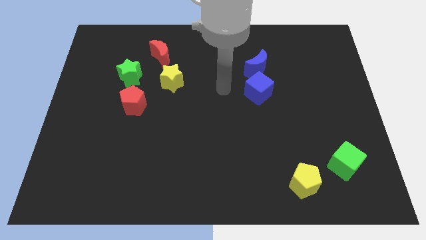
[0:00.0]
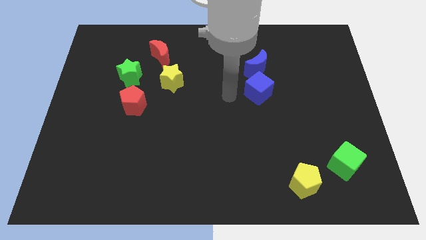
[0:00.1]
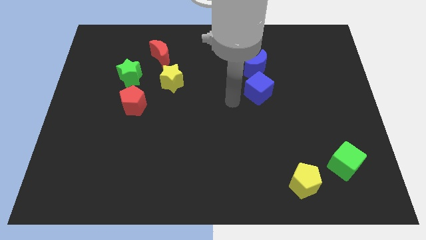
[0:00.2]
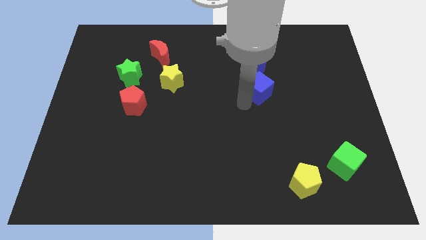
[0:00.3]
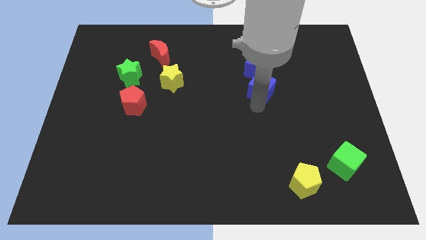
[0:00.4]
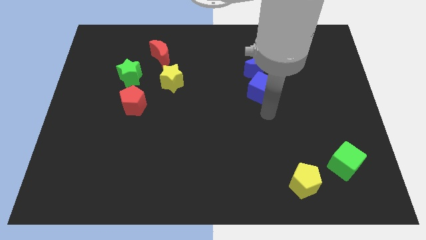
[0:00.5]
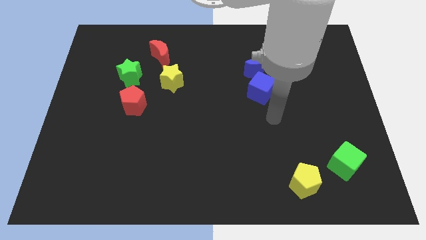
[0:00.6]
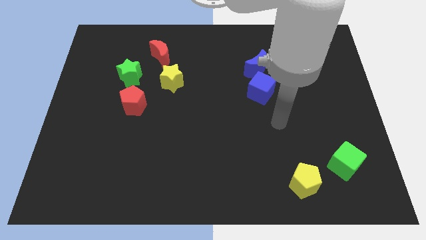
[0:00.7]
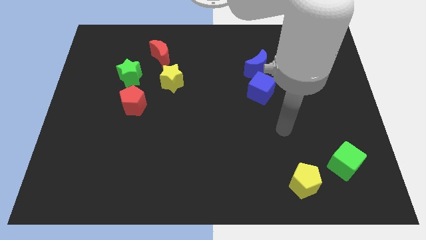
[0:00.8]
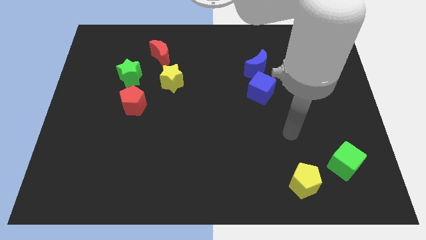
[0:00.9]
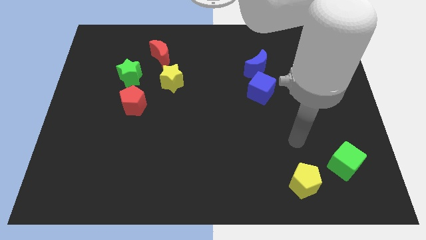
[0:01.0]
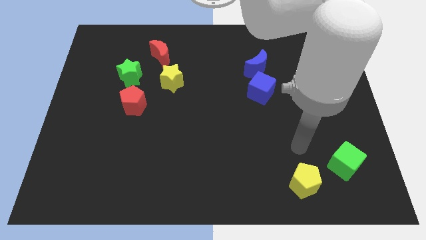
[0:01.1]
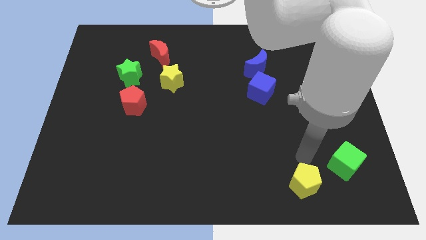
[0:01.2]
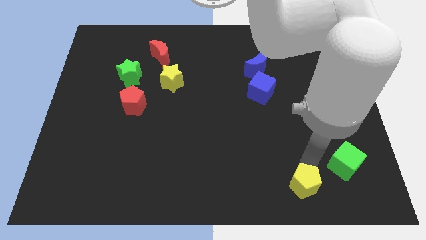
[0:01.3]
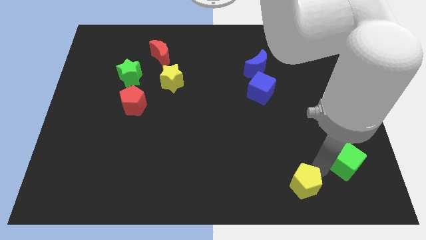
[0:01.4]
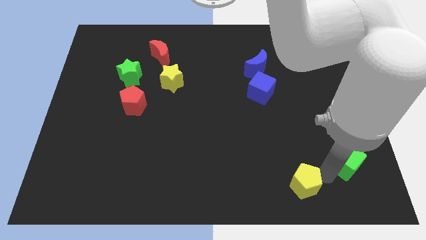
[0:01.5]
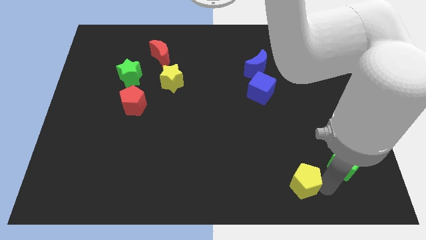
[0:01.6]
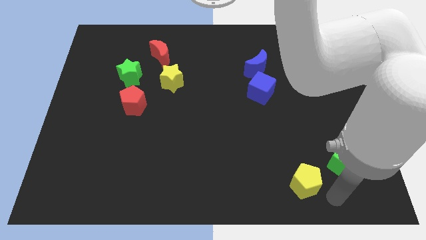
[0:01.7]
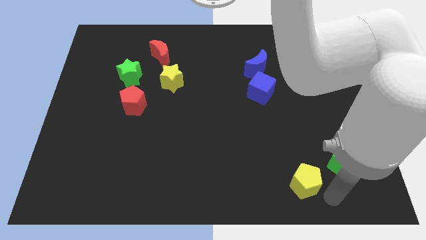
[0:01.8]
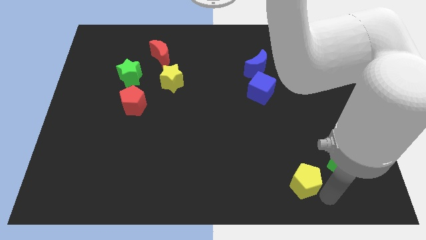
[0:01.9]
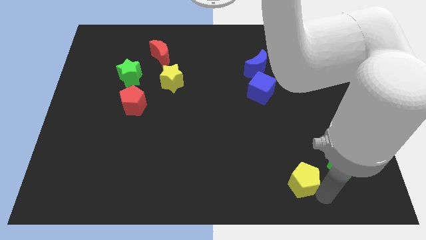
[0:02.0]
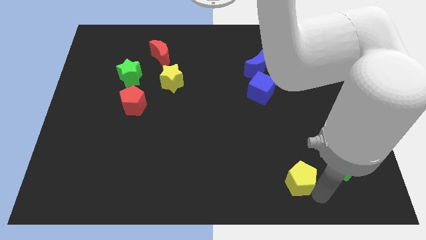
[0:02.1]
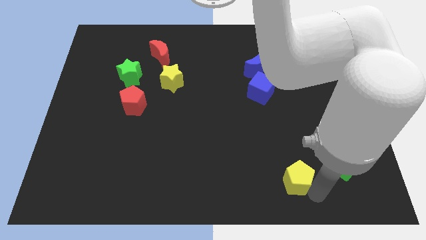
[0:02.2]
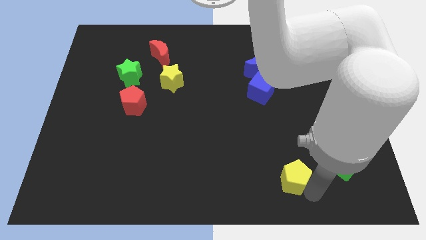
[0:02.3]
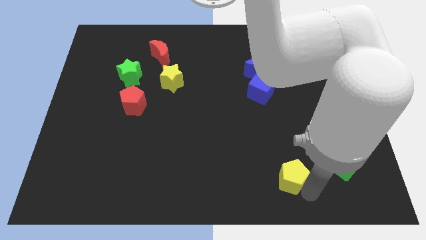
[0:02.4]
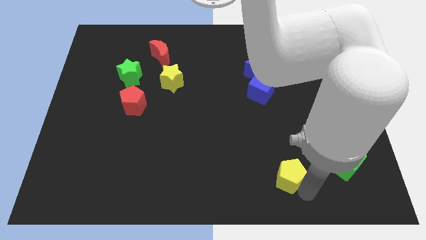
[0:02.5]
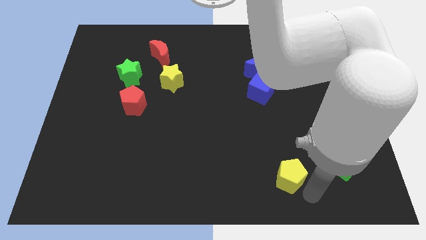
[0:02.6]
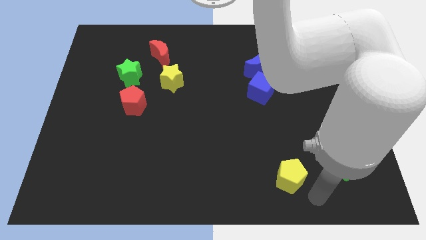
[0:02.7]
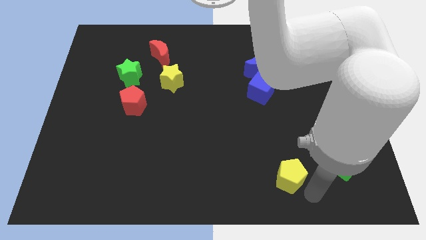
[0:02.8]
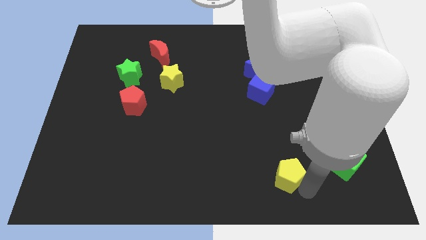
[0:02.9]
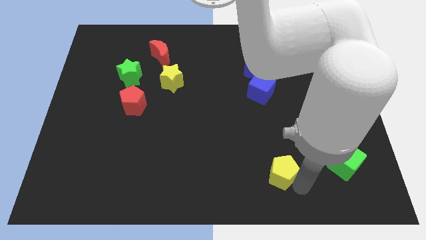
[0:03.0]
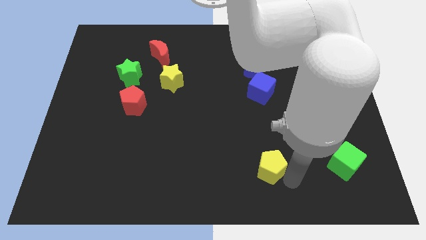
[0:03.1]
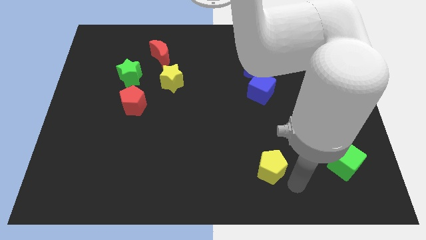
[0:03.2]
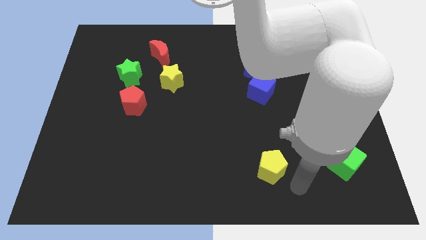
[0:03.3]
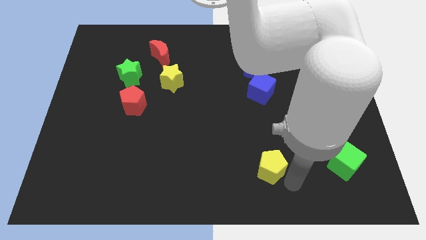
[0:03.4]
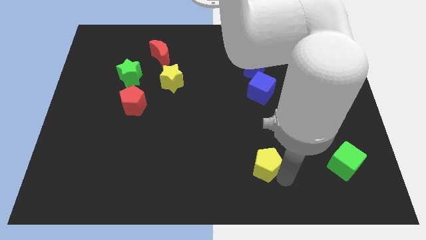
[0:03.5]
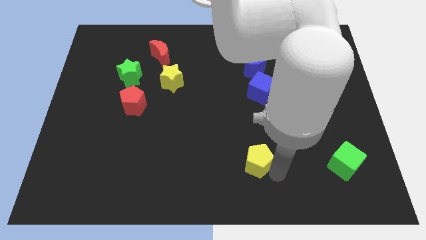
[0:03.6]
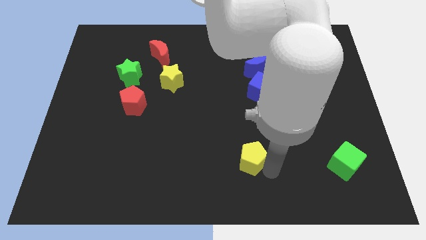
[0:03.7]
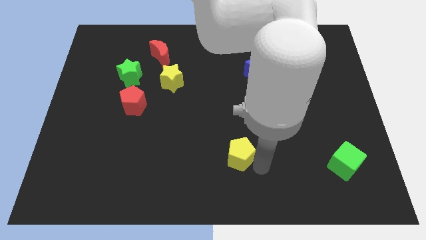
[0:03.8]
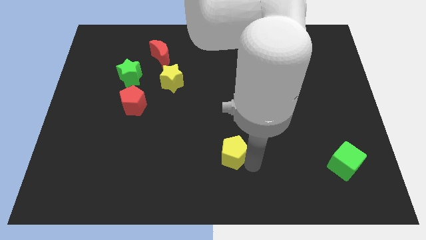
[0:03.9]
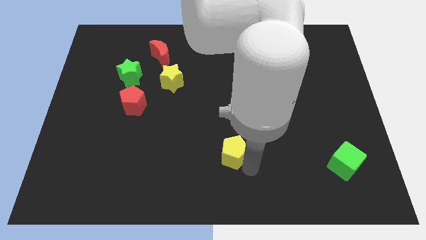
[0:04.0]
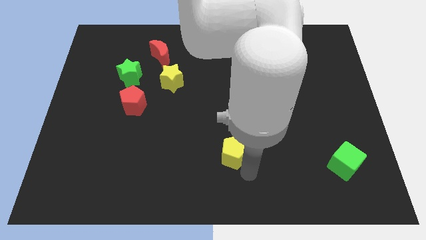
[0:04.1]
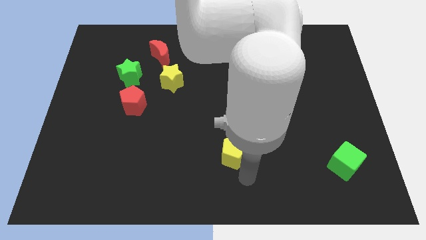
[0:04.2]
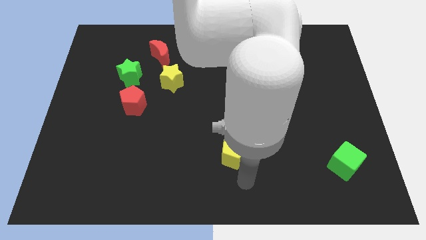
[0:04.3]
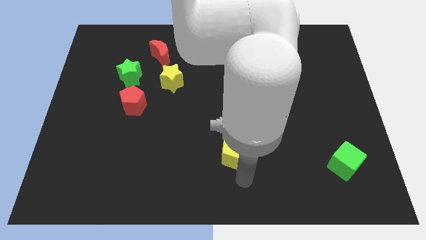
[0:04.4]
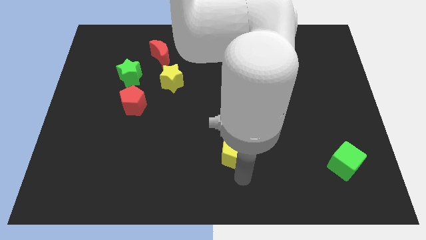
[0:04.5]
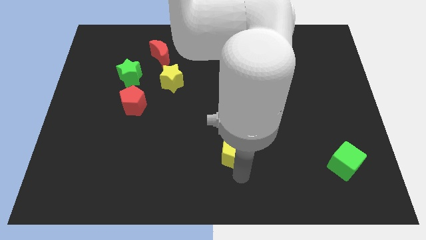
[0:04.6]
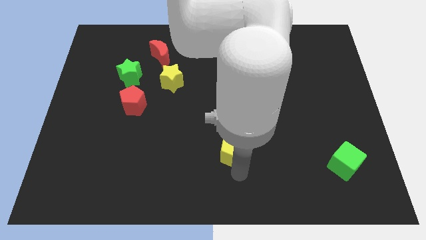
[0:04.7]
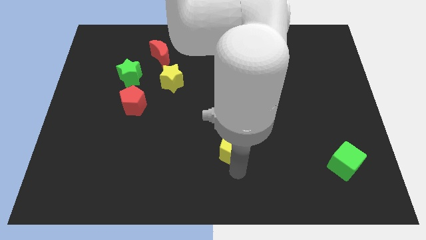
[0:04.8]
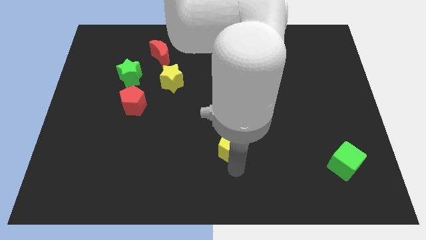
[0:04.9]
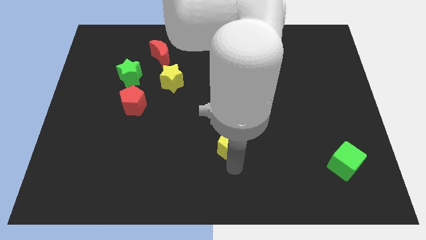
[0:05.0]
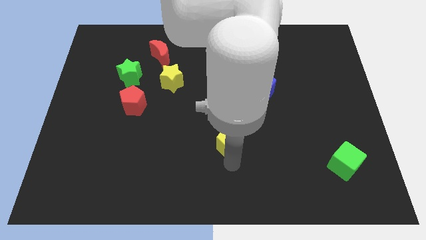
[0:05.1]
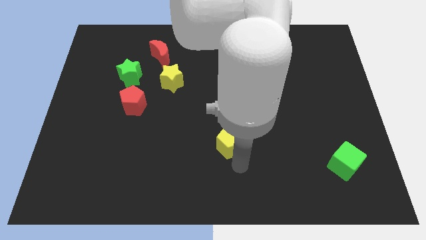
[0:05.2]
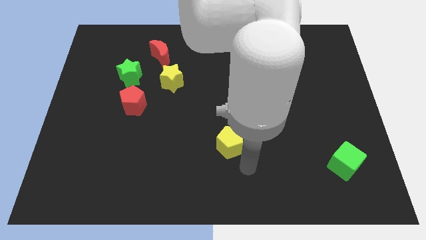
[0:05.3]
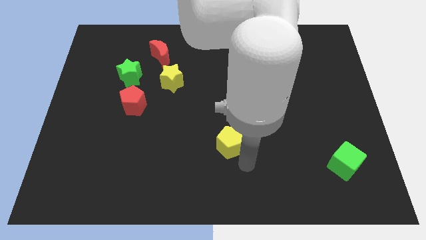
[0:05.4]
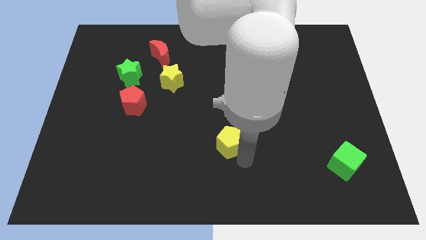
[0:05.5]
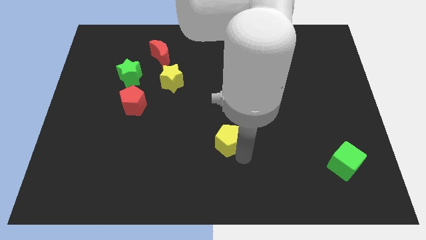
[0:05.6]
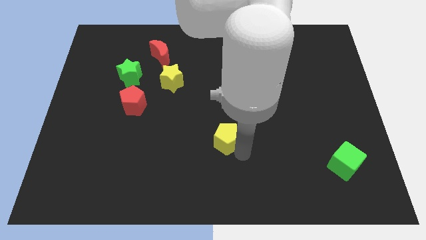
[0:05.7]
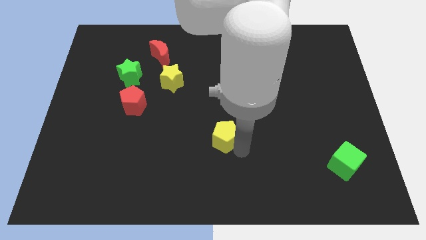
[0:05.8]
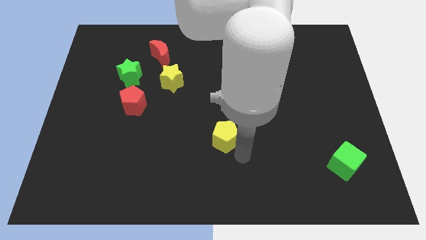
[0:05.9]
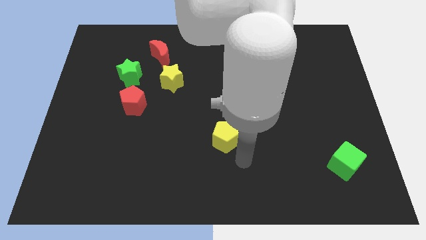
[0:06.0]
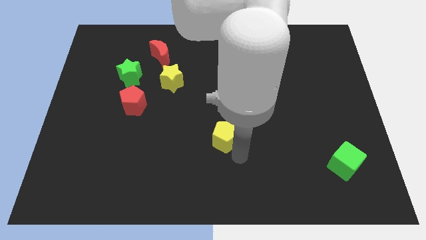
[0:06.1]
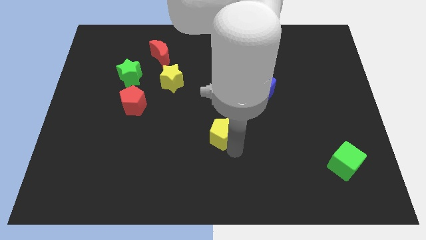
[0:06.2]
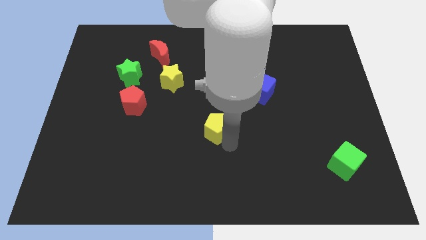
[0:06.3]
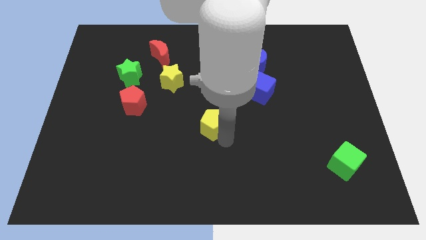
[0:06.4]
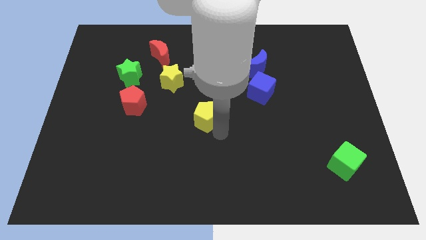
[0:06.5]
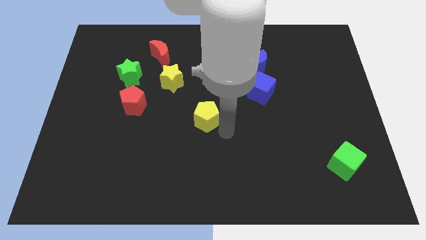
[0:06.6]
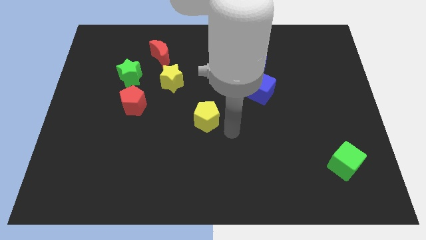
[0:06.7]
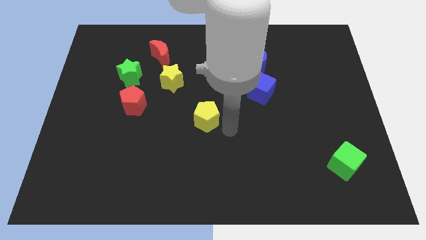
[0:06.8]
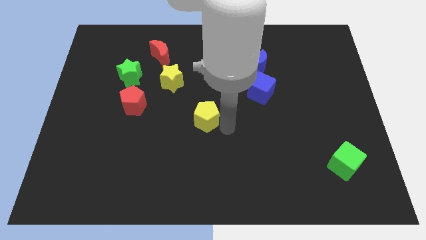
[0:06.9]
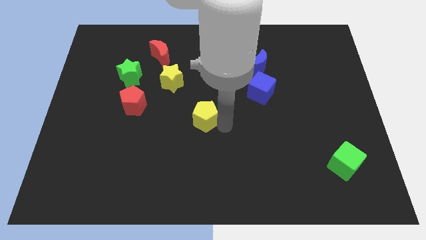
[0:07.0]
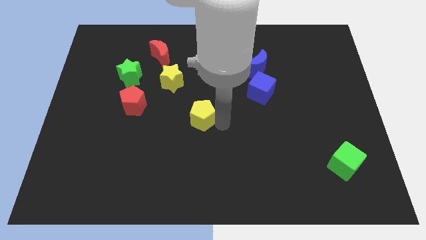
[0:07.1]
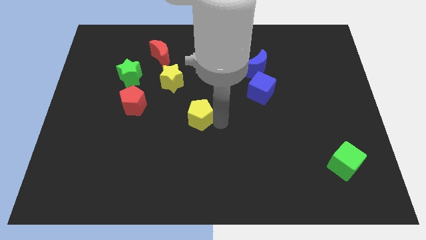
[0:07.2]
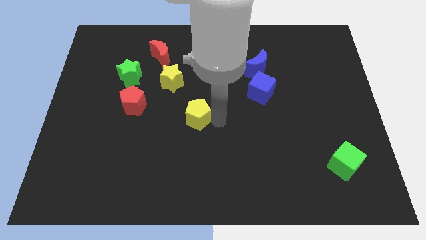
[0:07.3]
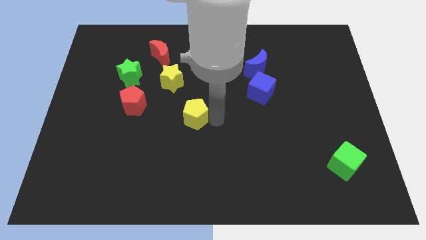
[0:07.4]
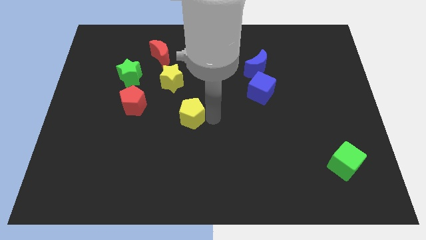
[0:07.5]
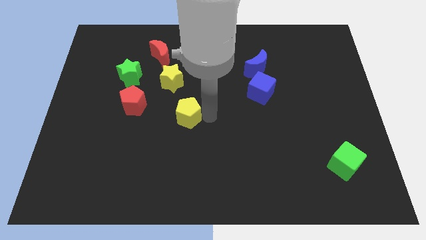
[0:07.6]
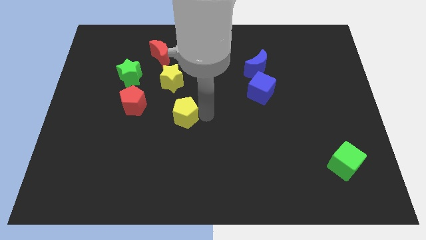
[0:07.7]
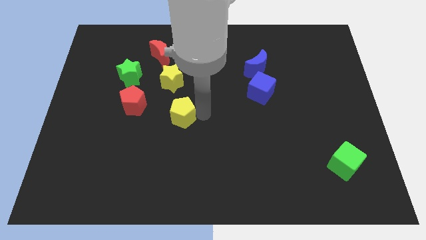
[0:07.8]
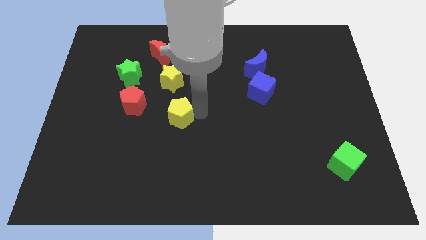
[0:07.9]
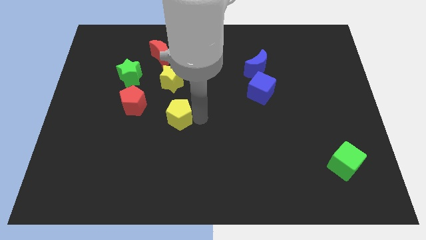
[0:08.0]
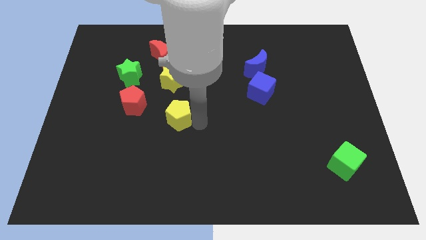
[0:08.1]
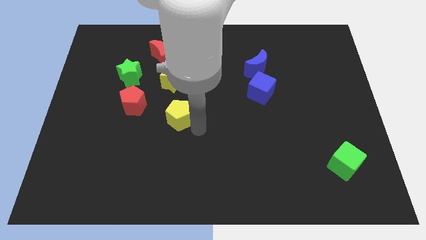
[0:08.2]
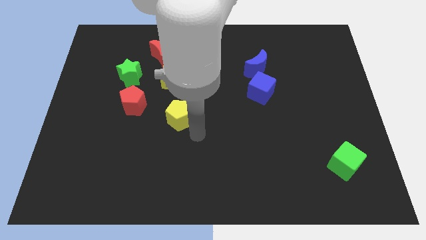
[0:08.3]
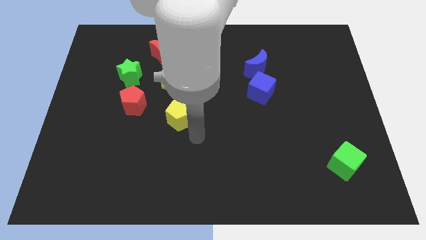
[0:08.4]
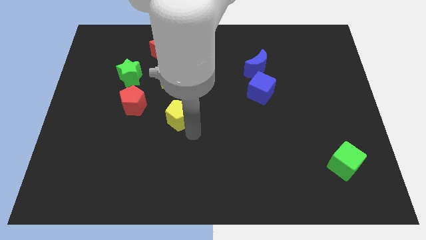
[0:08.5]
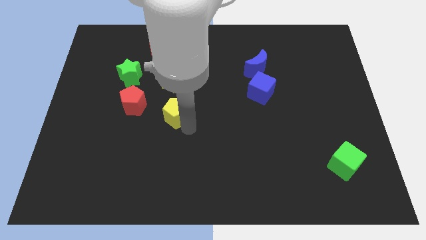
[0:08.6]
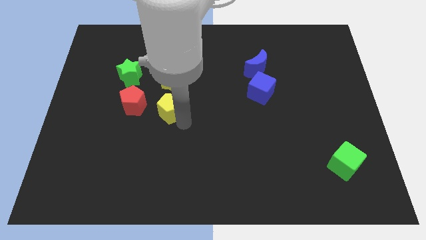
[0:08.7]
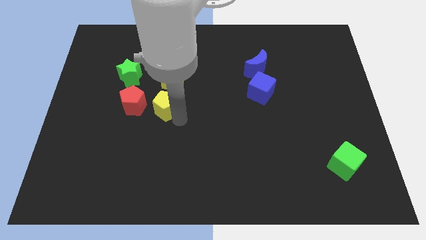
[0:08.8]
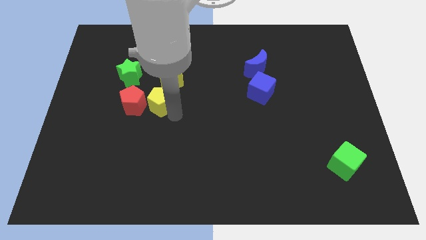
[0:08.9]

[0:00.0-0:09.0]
slide the yellow pentagon to the bottom left side of the yellow star
